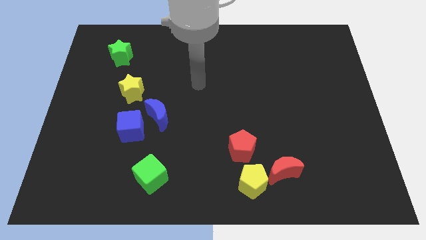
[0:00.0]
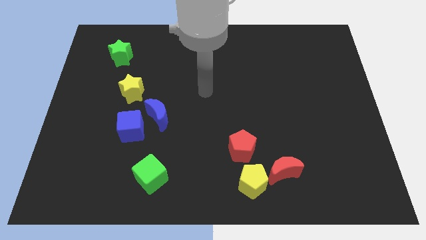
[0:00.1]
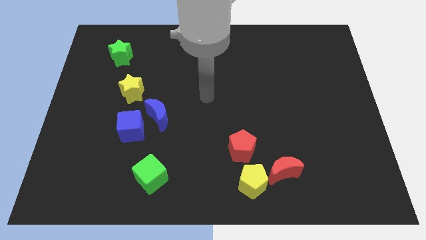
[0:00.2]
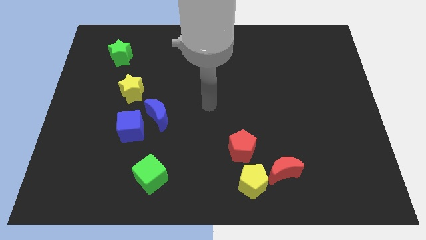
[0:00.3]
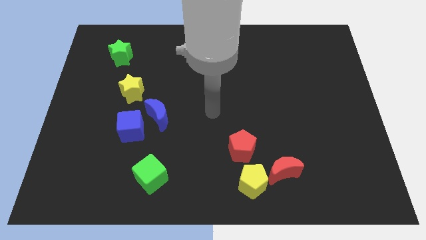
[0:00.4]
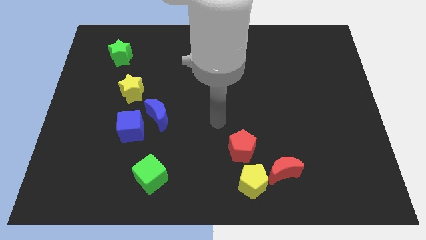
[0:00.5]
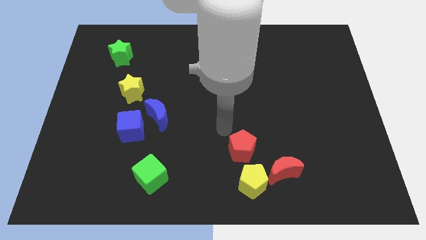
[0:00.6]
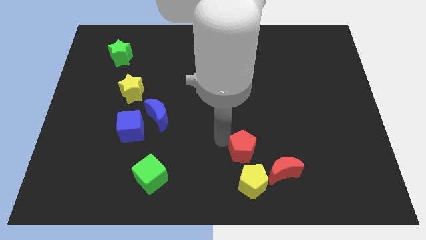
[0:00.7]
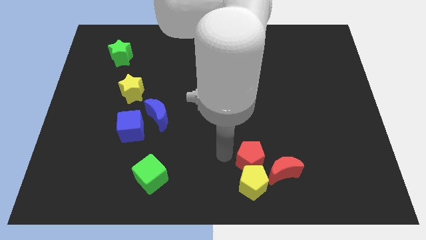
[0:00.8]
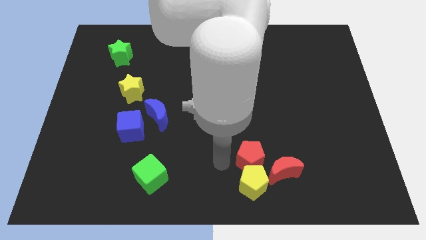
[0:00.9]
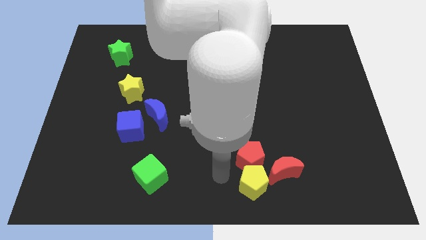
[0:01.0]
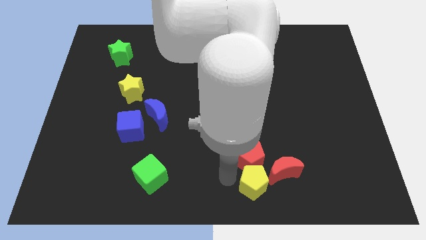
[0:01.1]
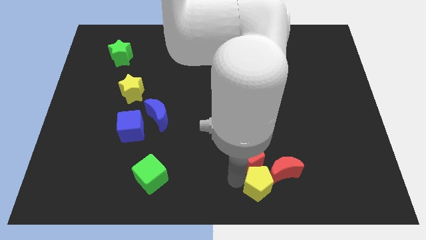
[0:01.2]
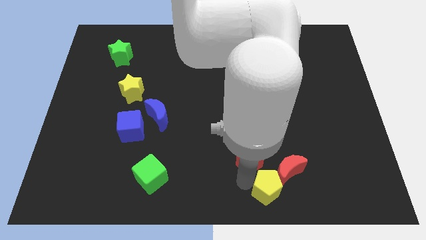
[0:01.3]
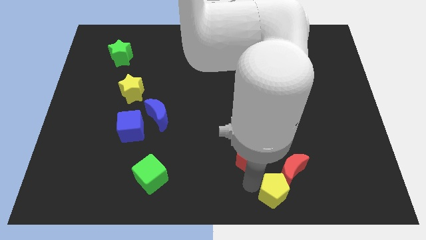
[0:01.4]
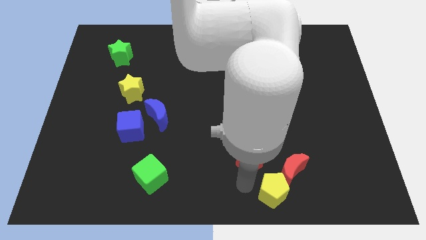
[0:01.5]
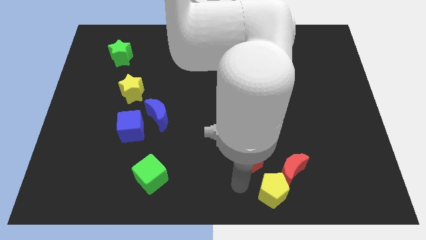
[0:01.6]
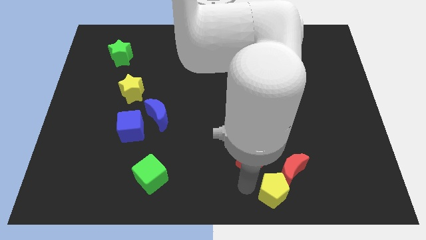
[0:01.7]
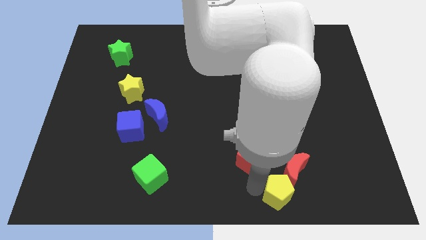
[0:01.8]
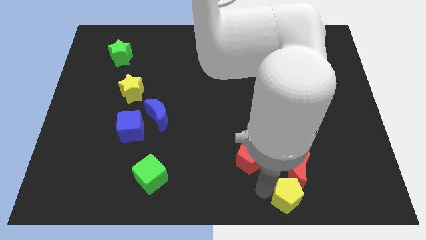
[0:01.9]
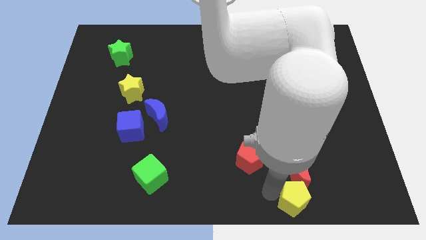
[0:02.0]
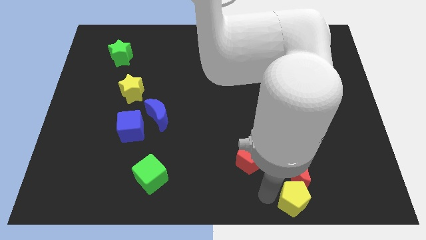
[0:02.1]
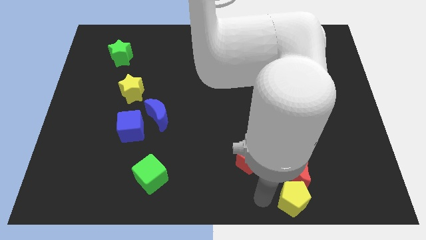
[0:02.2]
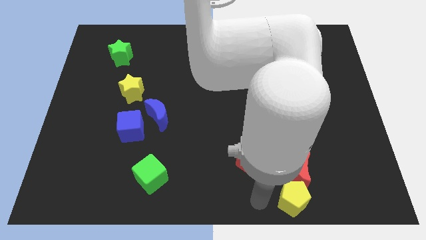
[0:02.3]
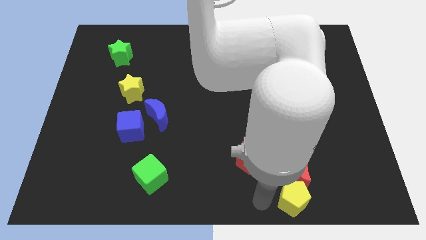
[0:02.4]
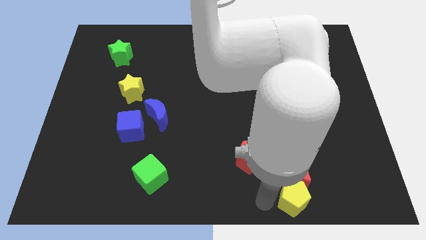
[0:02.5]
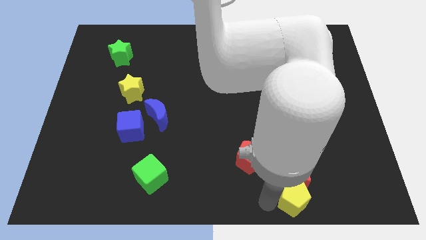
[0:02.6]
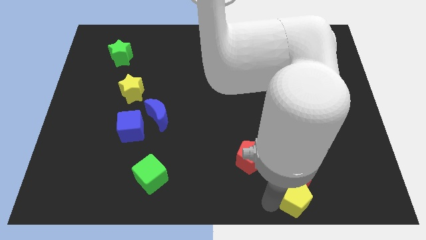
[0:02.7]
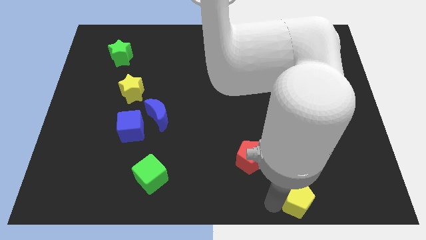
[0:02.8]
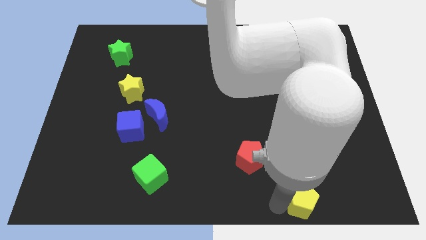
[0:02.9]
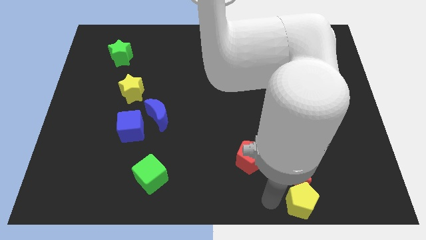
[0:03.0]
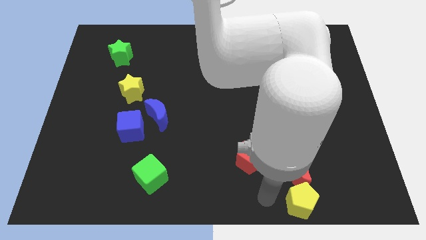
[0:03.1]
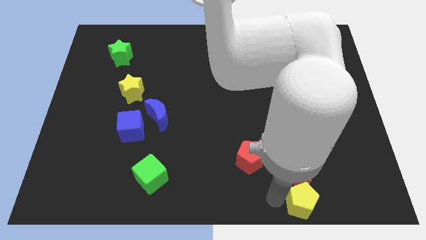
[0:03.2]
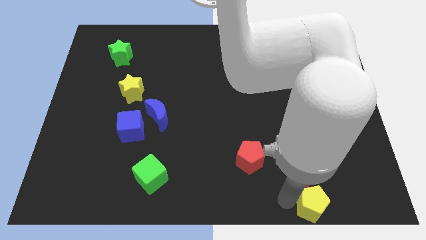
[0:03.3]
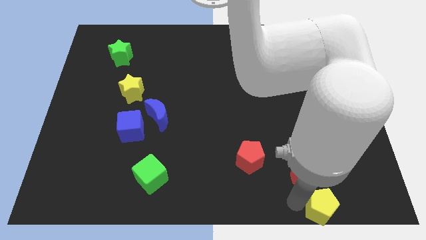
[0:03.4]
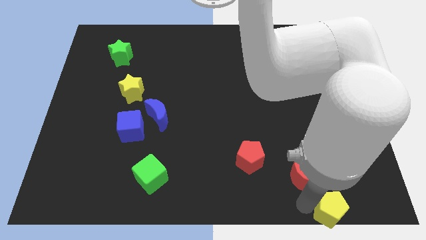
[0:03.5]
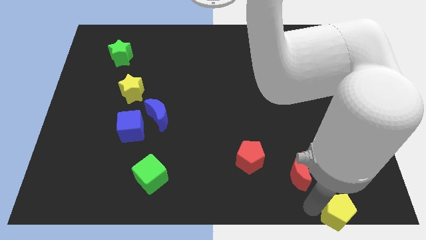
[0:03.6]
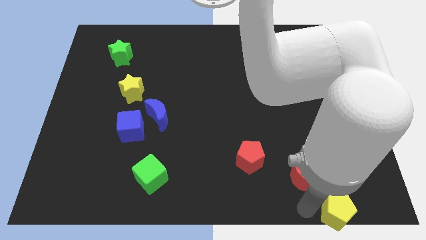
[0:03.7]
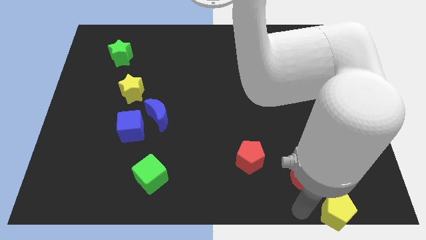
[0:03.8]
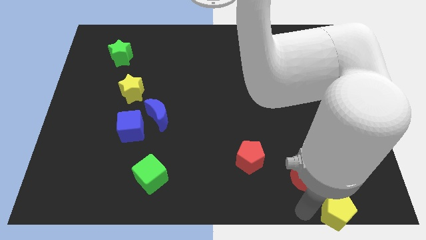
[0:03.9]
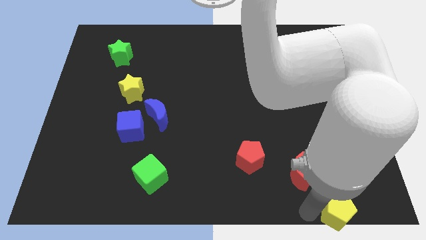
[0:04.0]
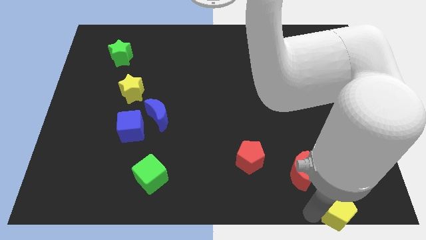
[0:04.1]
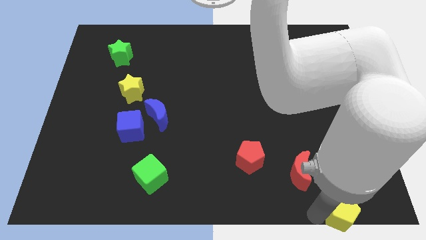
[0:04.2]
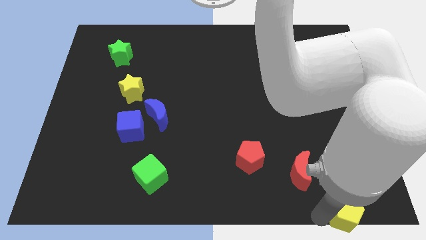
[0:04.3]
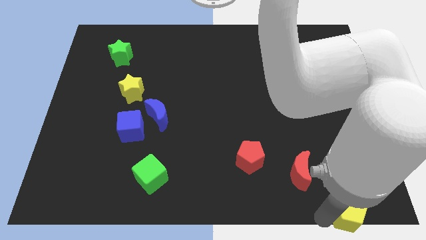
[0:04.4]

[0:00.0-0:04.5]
move the yellow pentagon to the bottom right

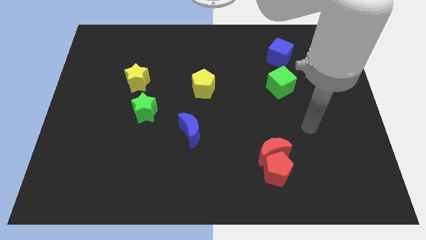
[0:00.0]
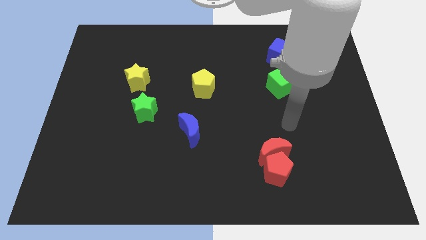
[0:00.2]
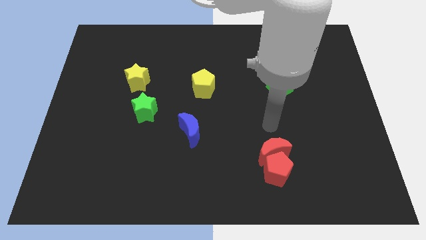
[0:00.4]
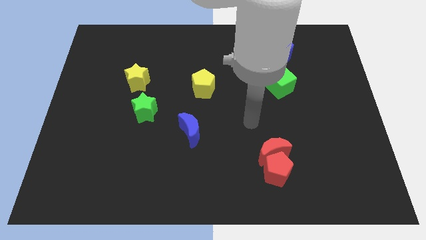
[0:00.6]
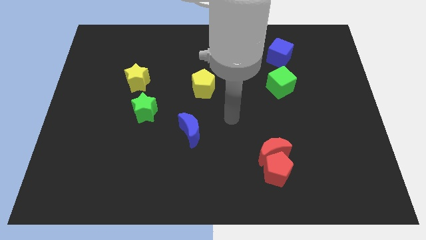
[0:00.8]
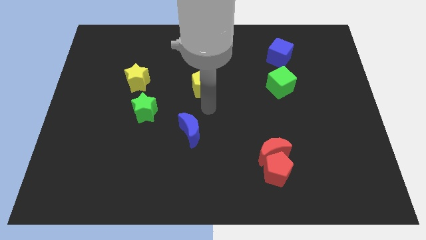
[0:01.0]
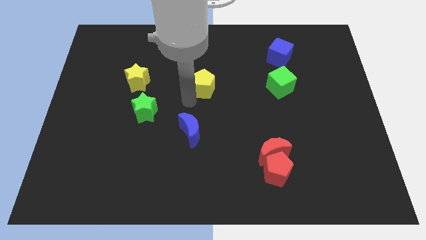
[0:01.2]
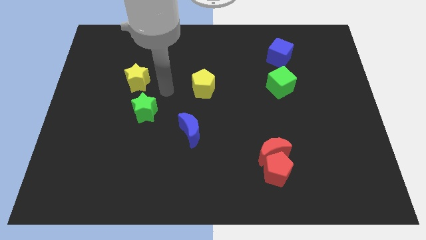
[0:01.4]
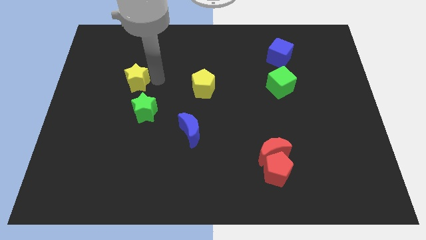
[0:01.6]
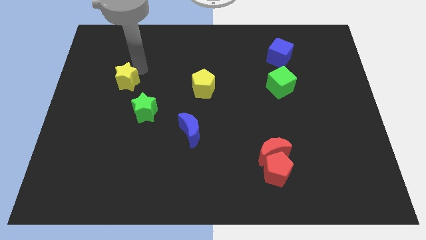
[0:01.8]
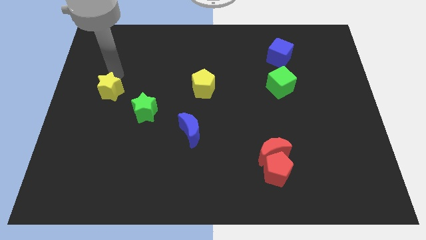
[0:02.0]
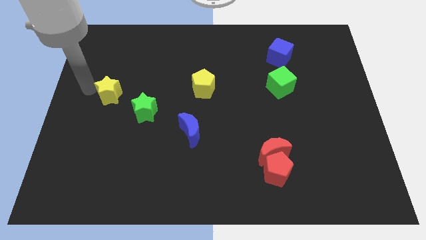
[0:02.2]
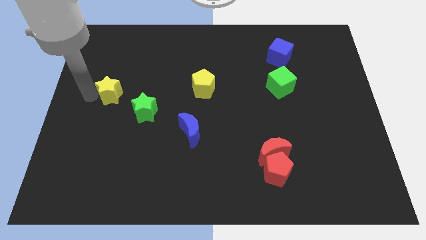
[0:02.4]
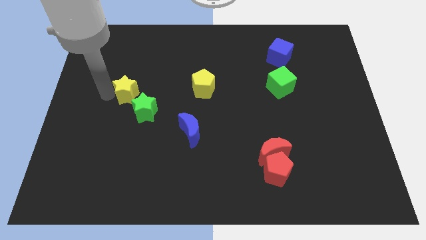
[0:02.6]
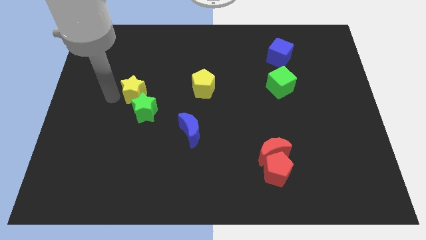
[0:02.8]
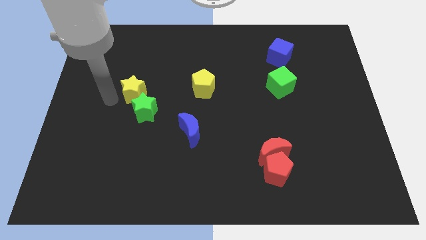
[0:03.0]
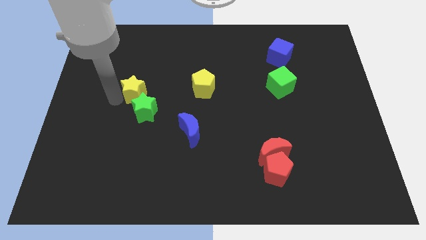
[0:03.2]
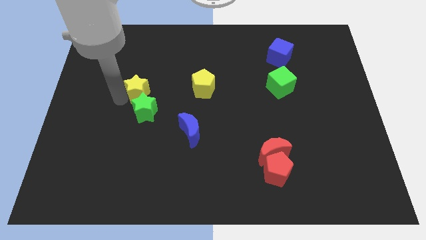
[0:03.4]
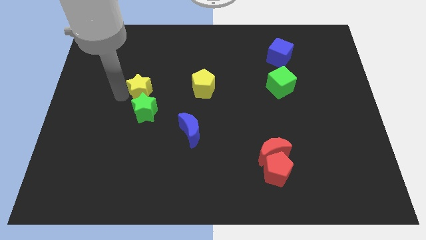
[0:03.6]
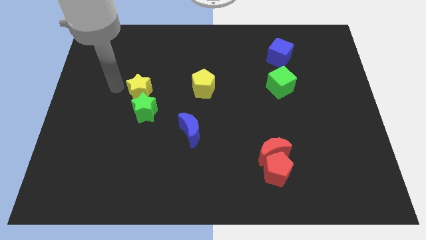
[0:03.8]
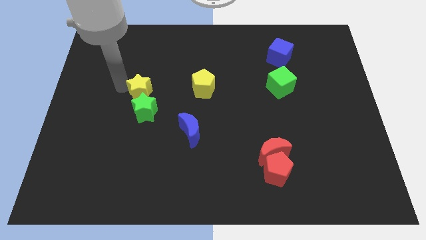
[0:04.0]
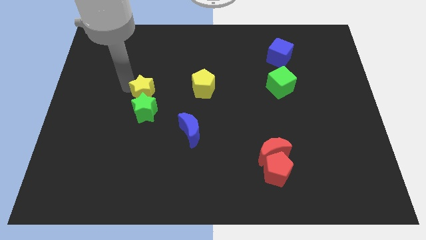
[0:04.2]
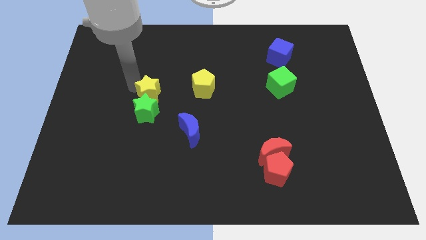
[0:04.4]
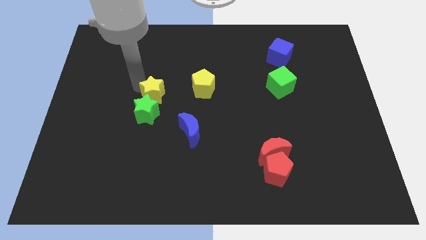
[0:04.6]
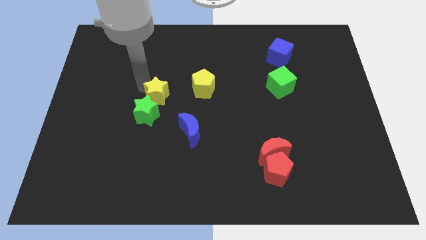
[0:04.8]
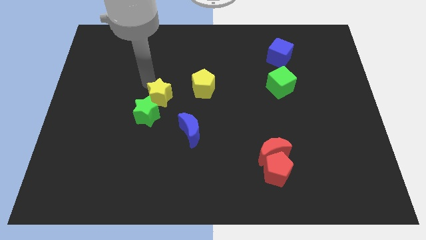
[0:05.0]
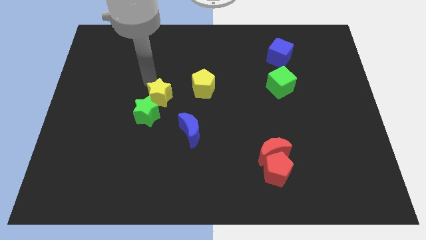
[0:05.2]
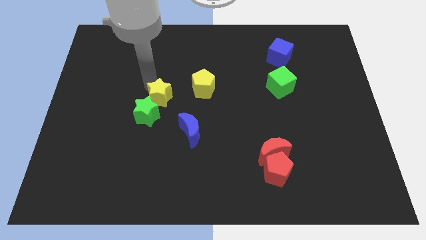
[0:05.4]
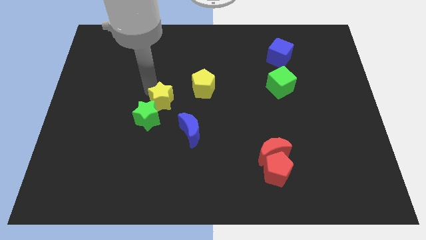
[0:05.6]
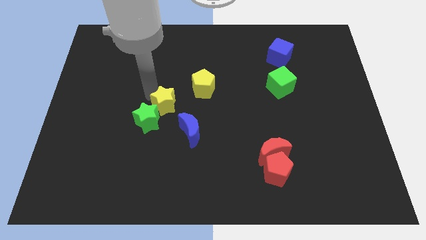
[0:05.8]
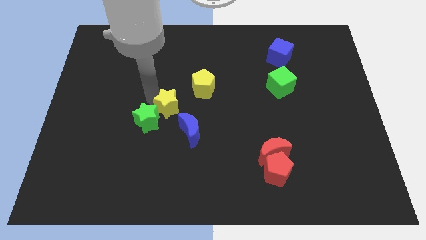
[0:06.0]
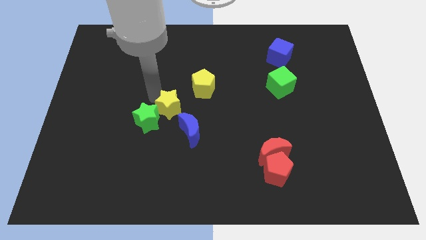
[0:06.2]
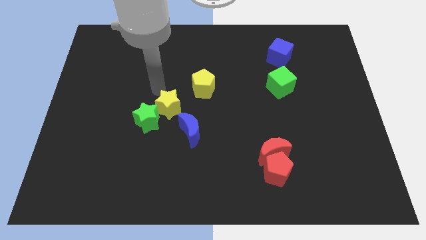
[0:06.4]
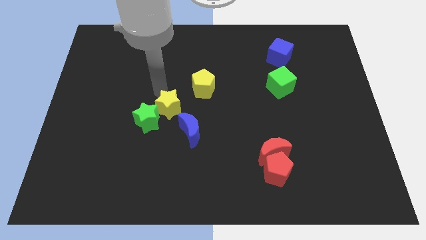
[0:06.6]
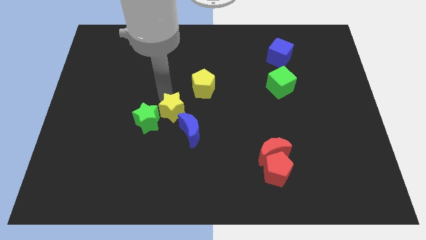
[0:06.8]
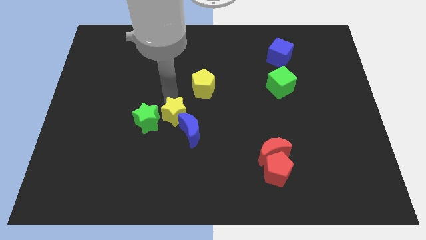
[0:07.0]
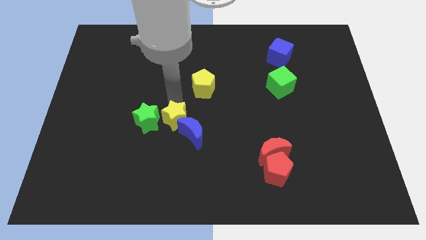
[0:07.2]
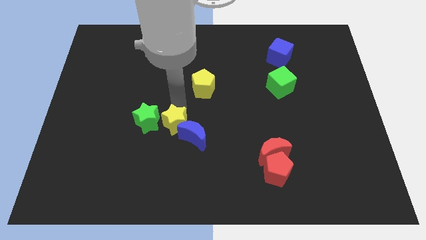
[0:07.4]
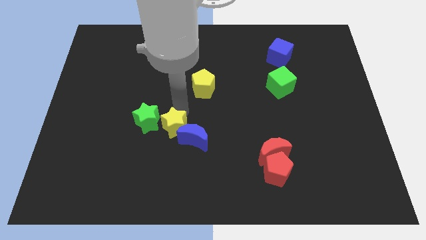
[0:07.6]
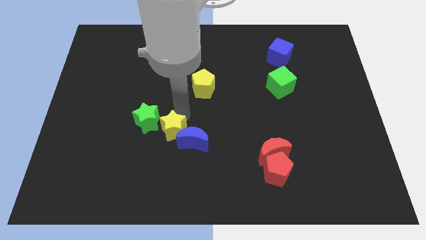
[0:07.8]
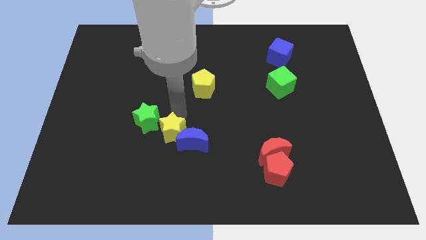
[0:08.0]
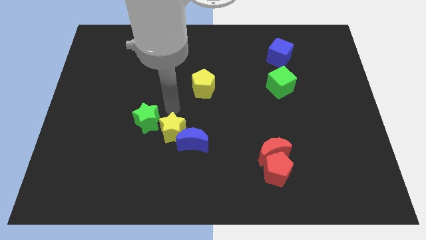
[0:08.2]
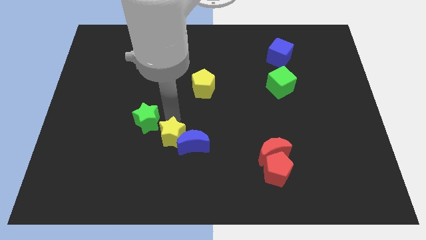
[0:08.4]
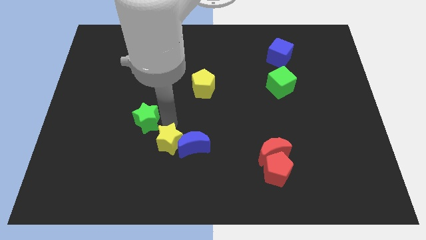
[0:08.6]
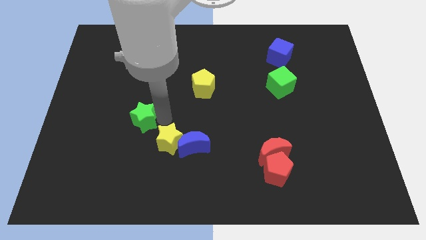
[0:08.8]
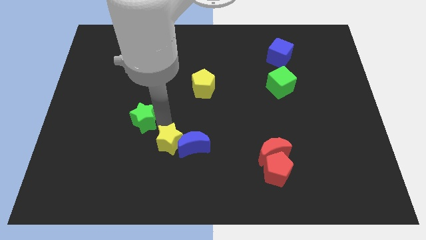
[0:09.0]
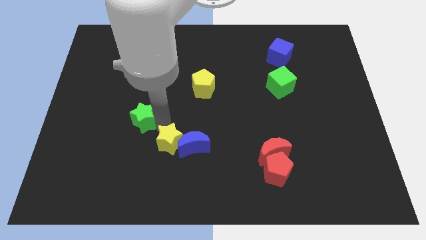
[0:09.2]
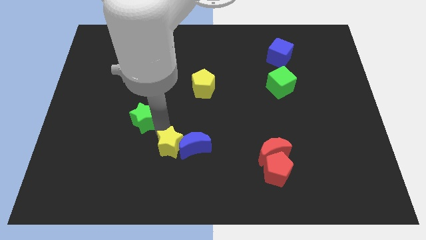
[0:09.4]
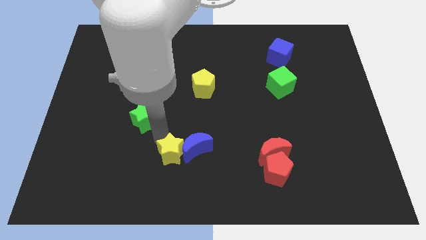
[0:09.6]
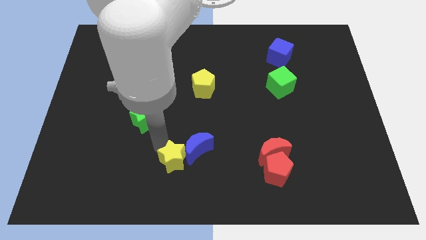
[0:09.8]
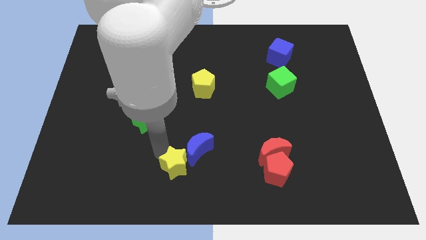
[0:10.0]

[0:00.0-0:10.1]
slide the yellow star to the bottom side
